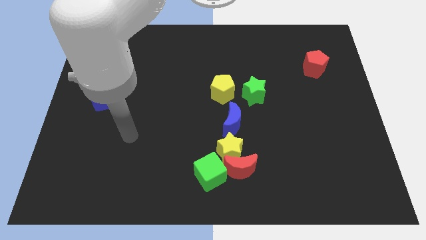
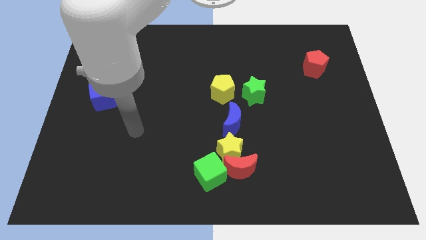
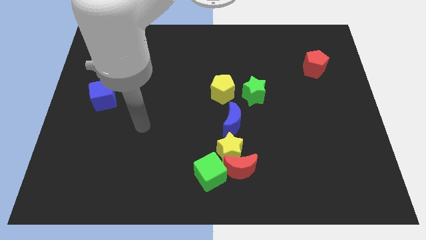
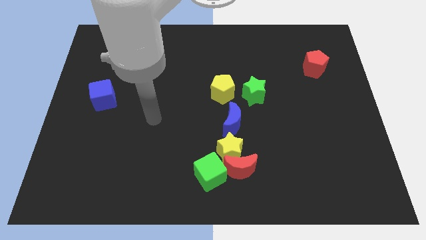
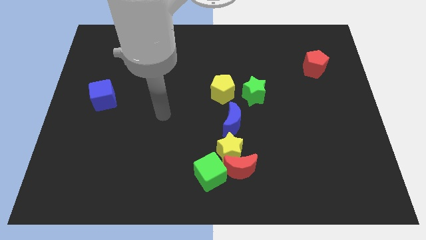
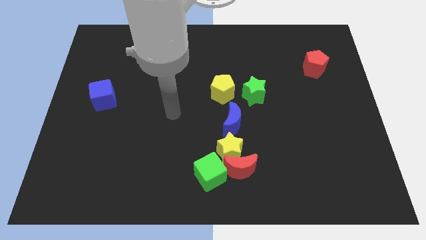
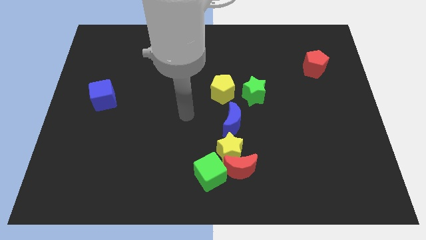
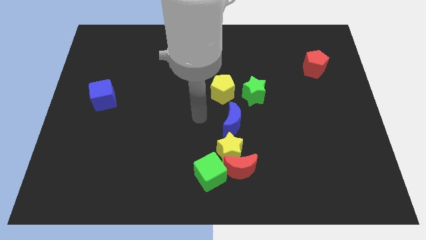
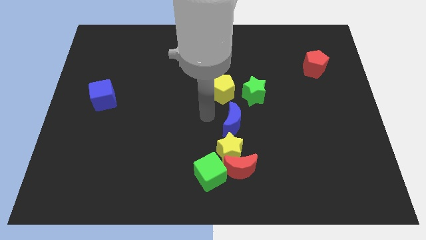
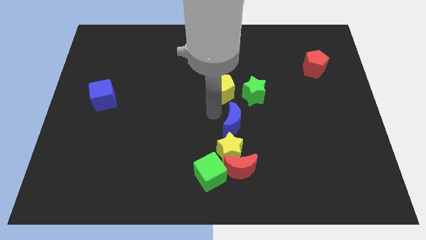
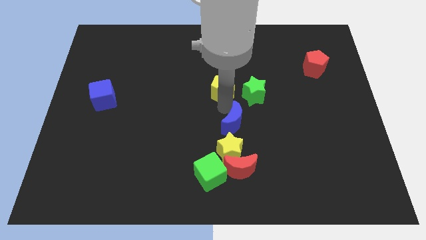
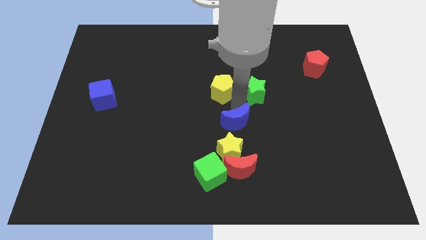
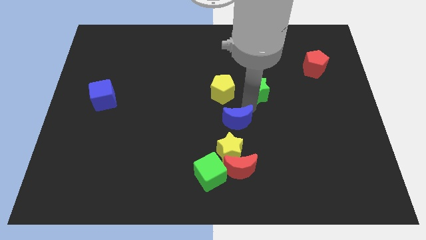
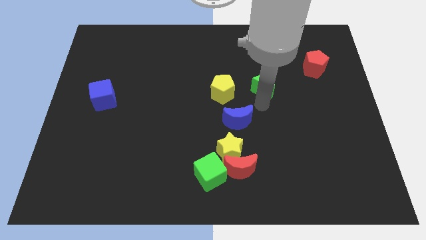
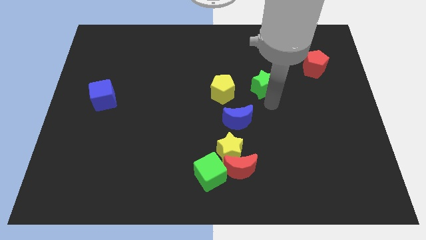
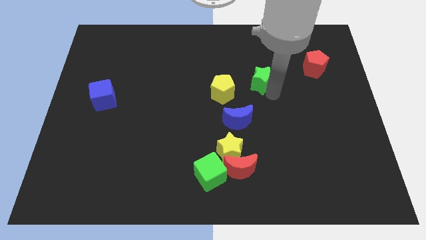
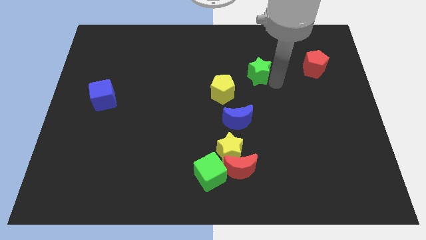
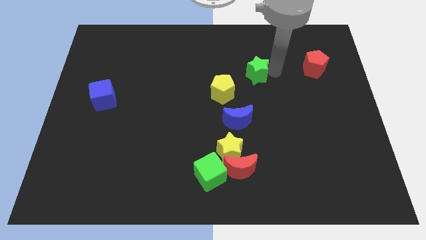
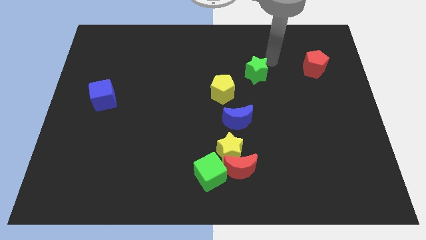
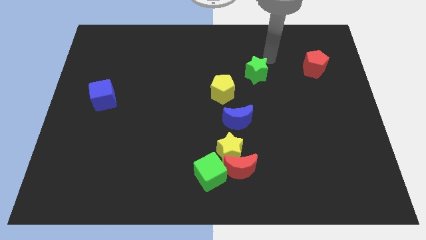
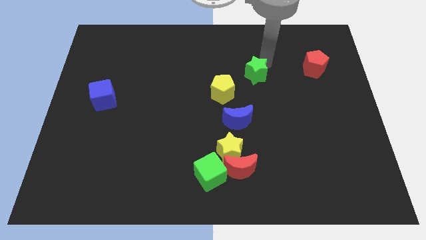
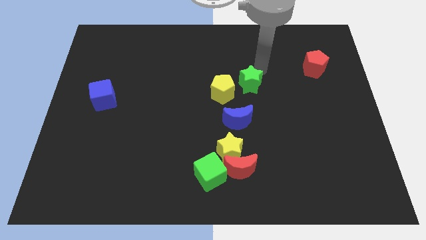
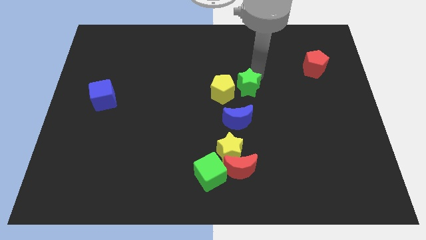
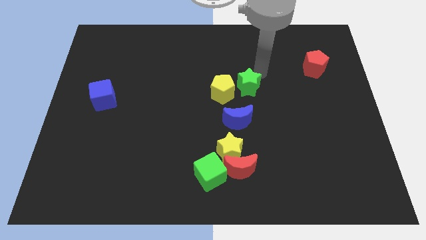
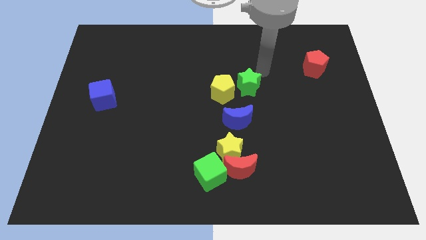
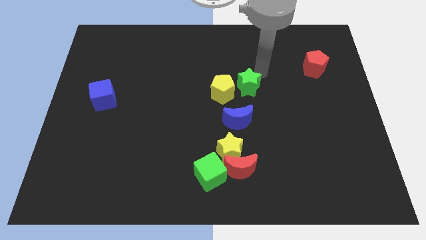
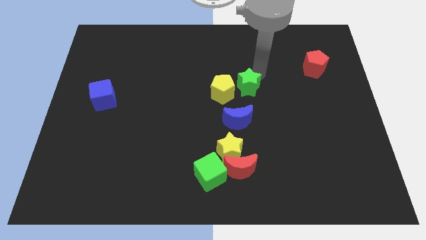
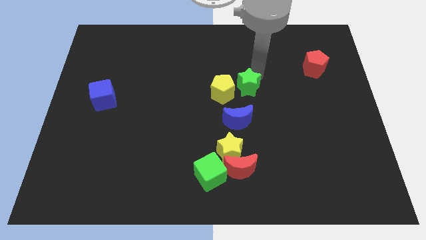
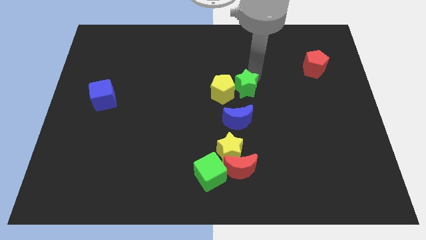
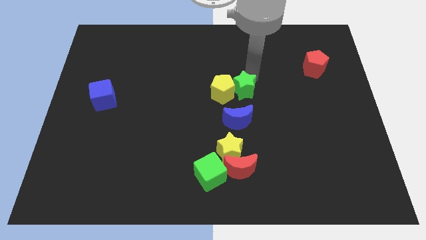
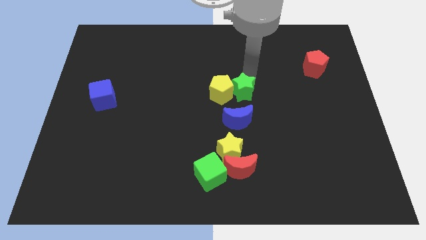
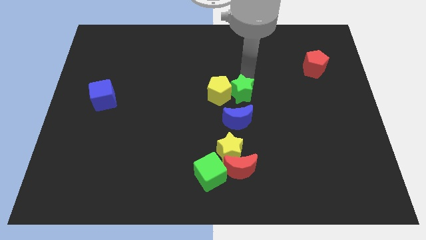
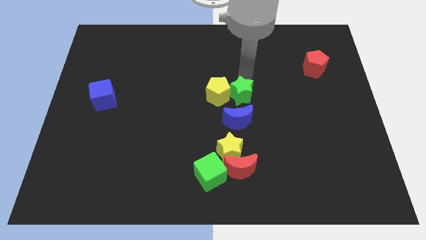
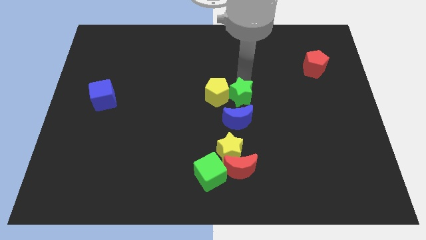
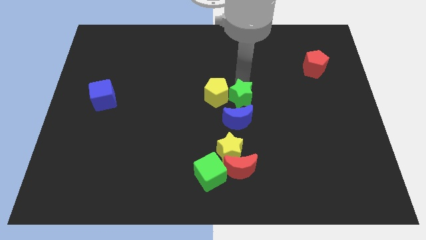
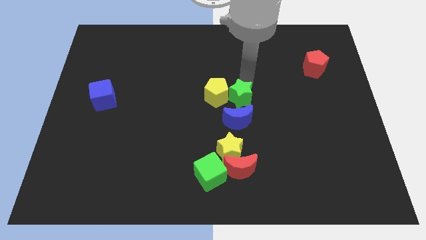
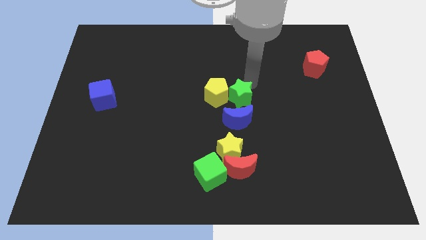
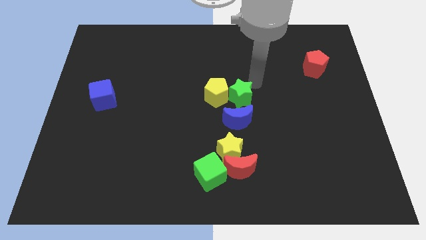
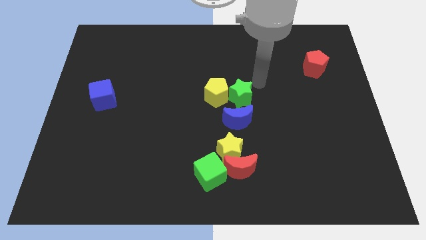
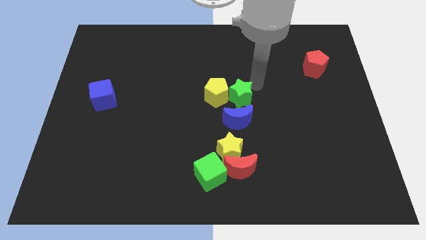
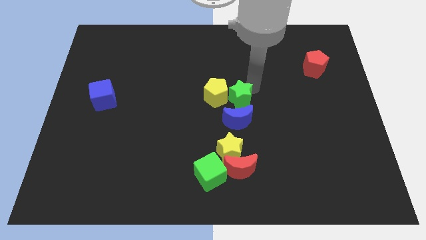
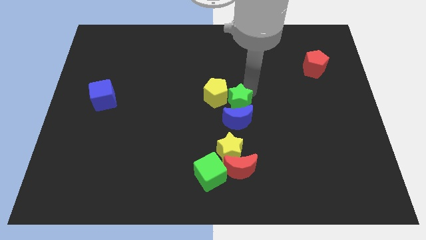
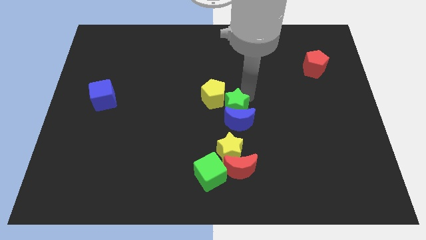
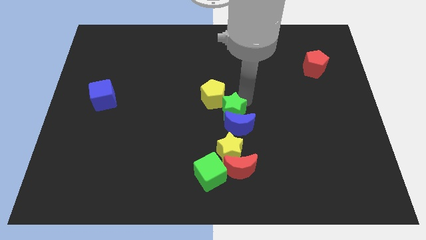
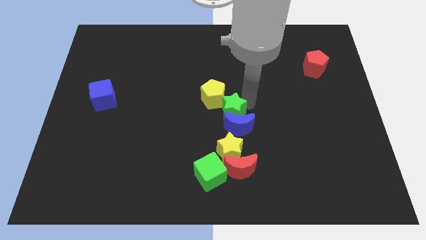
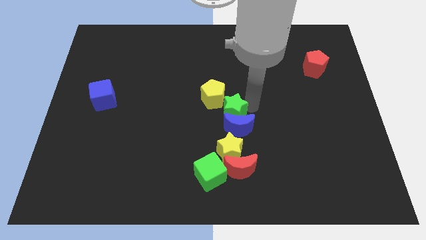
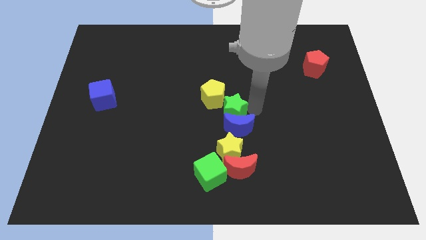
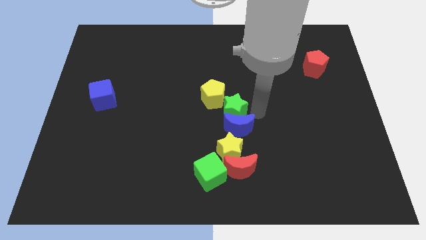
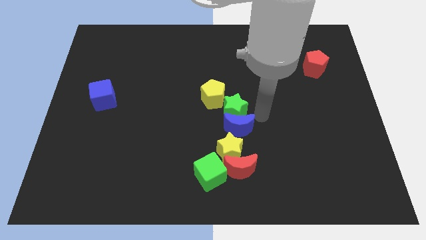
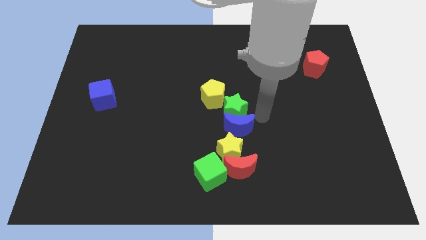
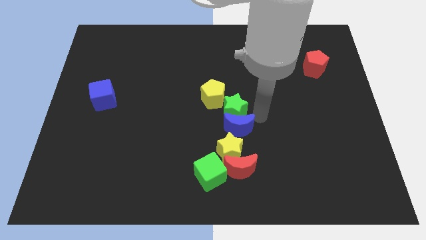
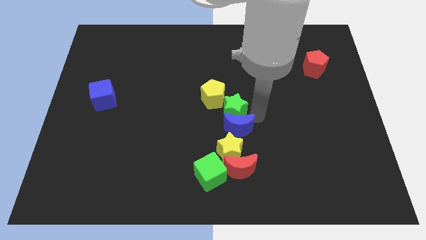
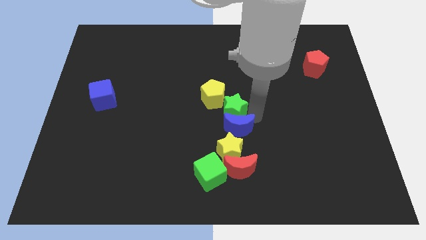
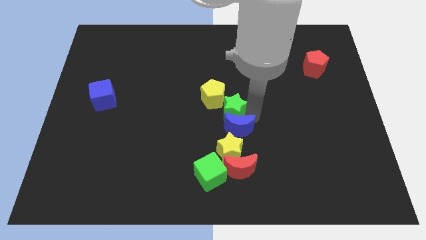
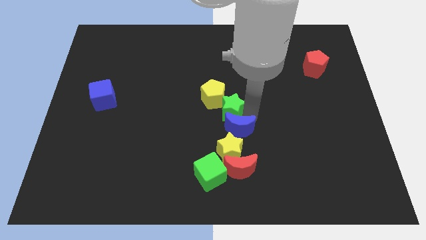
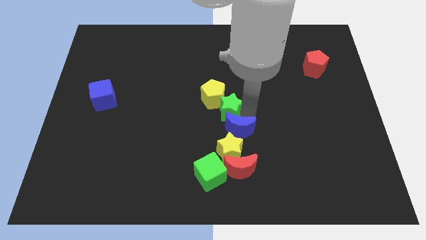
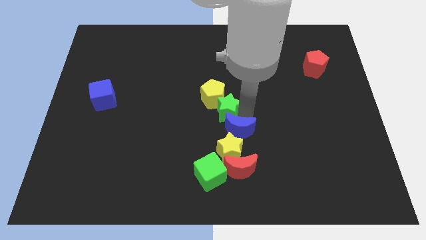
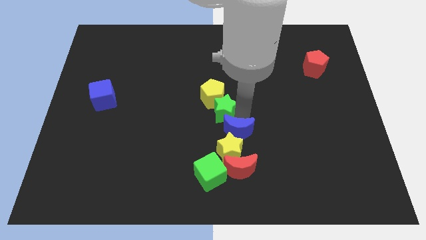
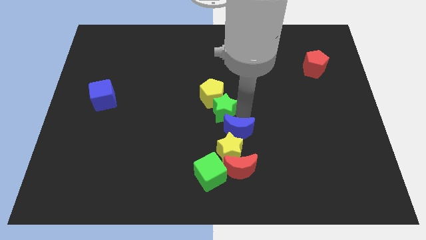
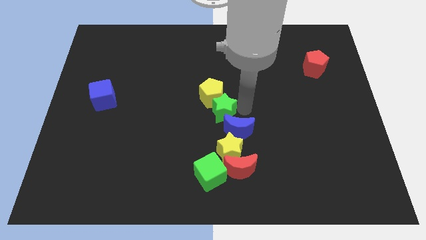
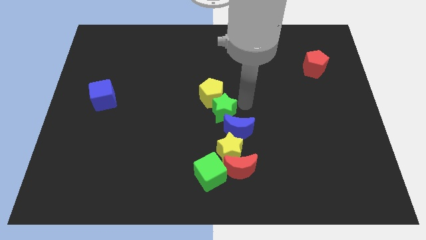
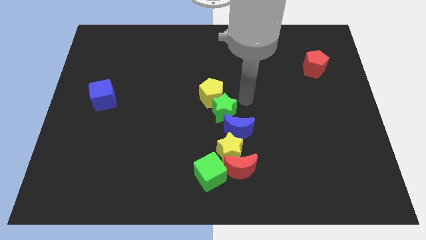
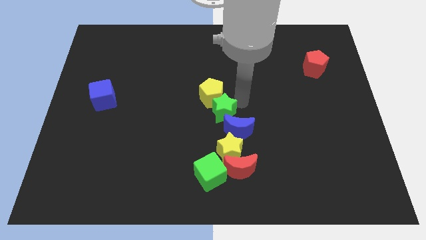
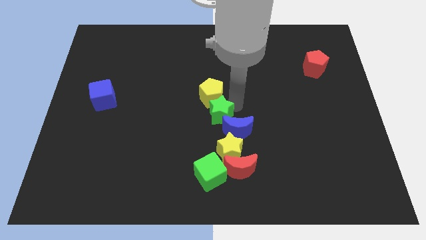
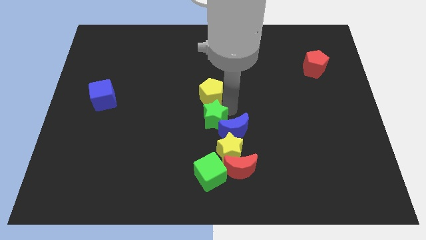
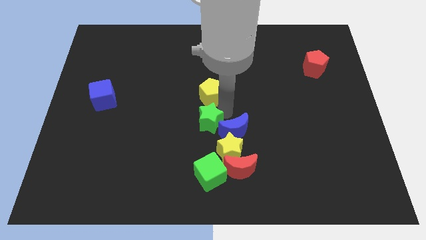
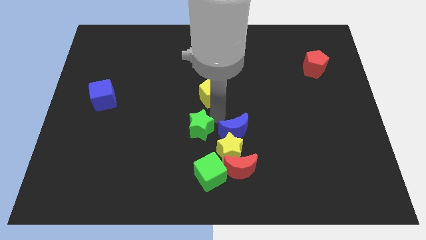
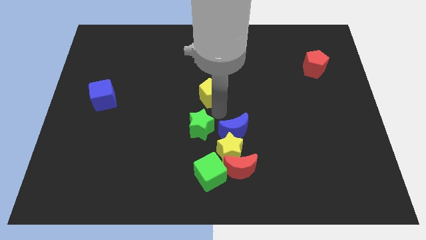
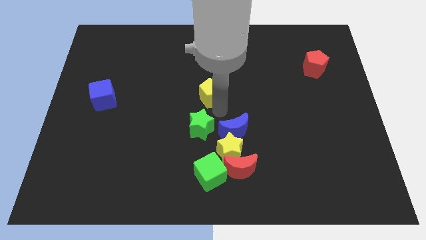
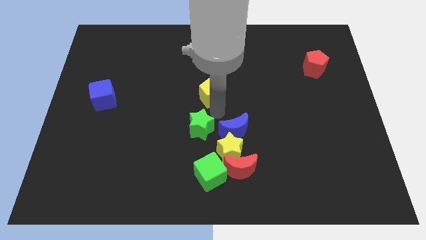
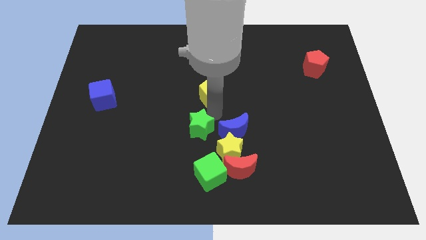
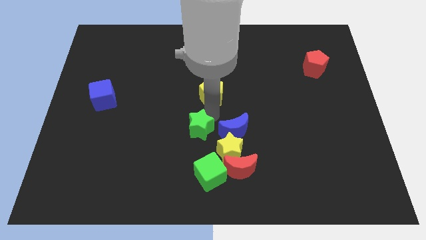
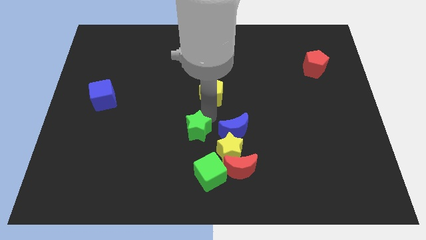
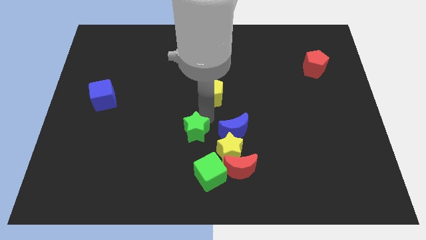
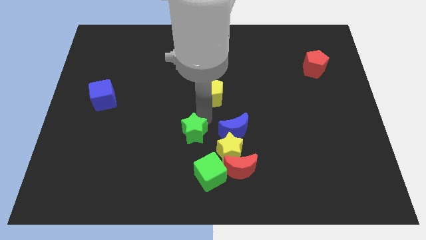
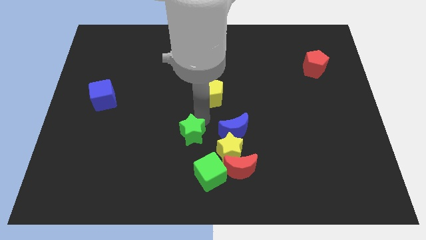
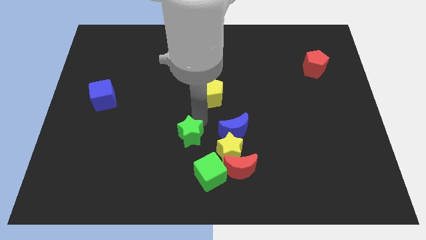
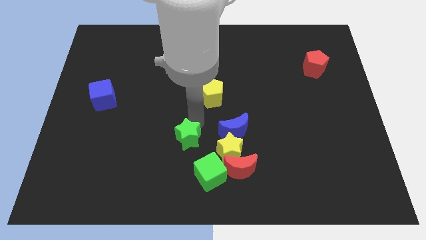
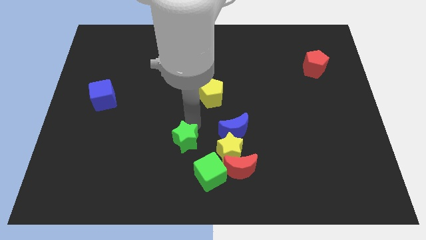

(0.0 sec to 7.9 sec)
slide the green star down and left

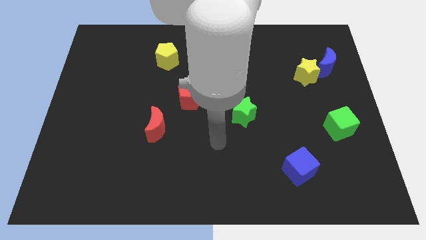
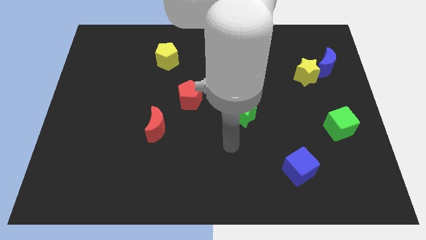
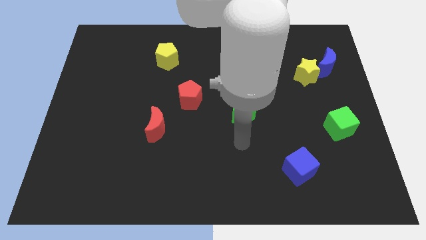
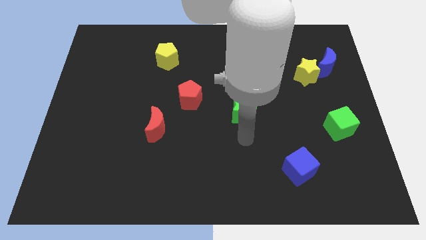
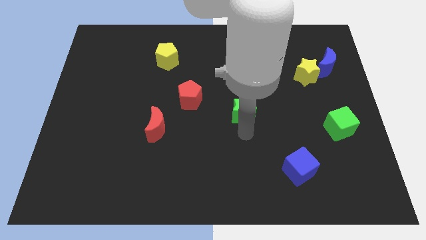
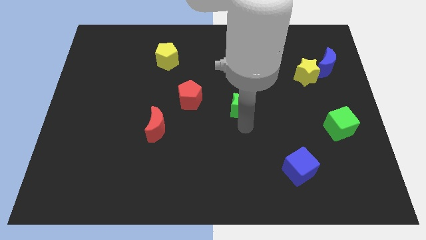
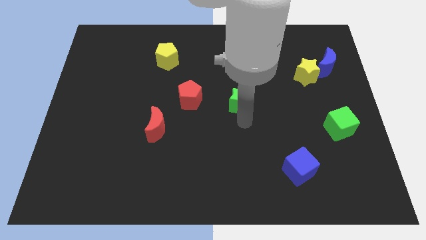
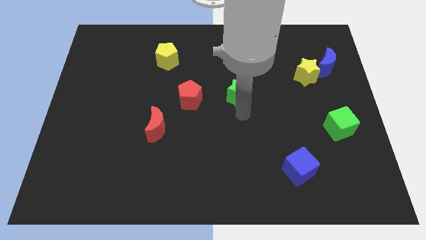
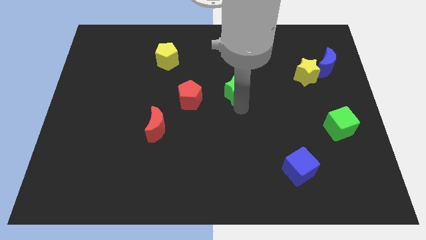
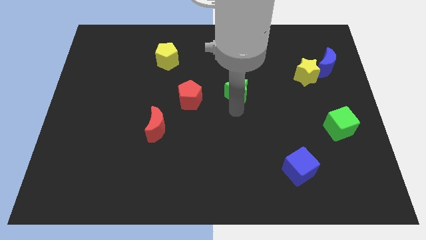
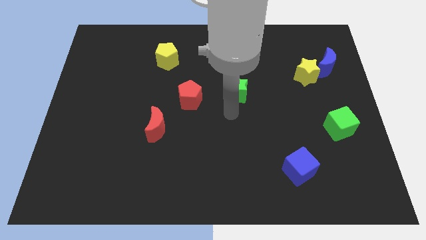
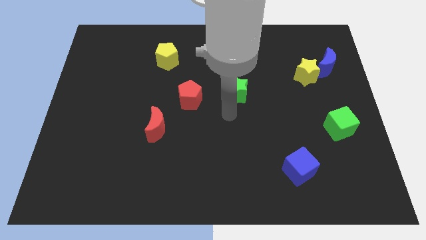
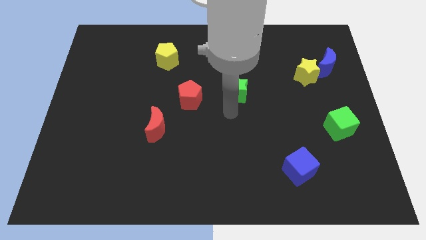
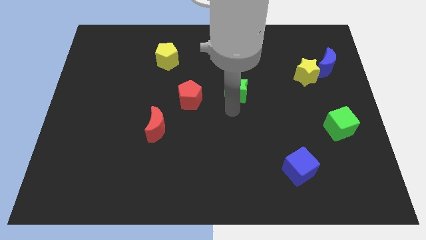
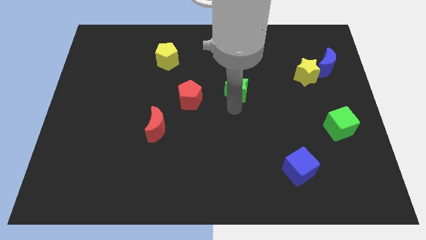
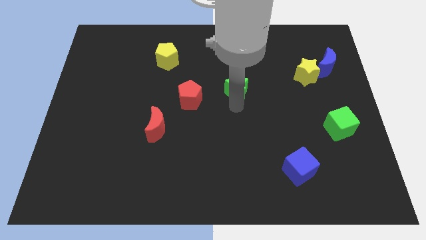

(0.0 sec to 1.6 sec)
slide the green star up slightly
